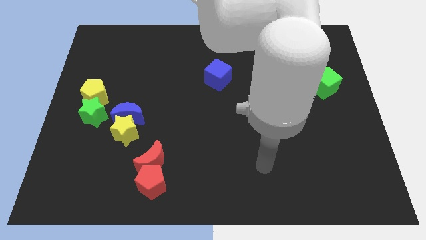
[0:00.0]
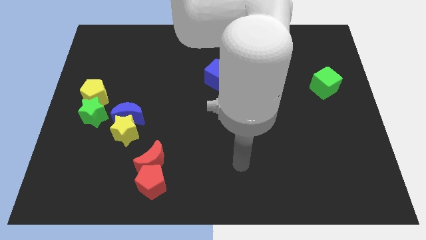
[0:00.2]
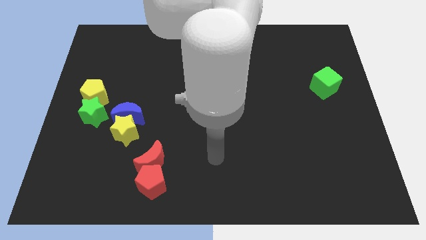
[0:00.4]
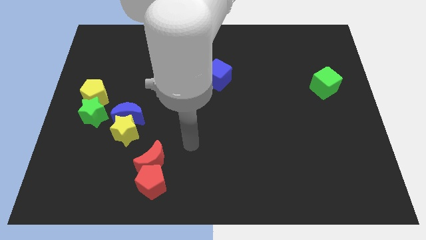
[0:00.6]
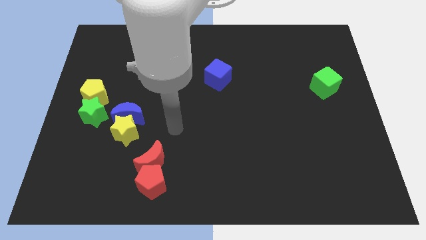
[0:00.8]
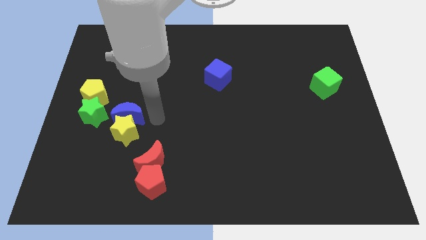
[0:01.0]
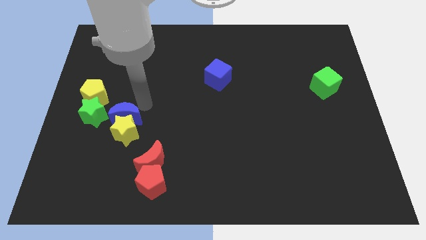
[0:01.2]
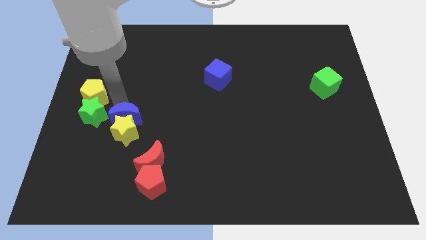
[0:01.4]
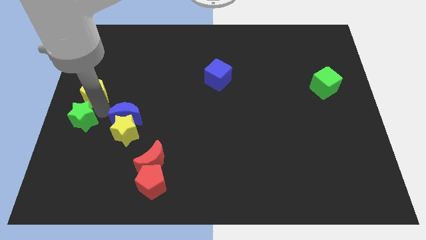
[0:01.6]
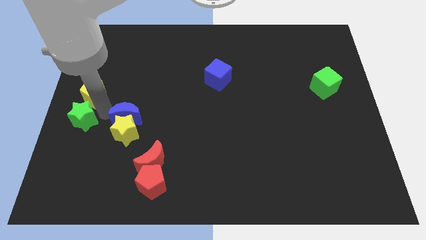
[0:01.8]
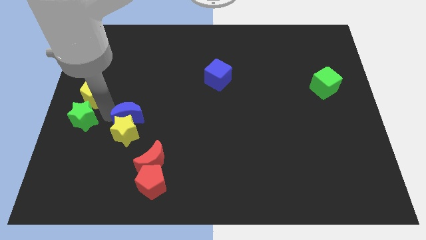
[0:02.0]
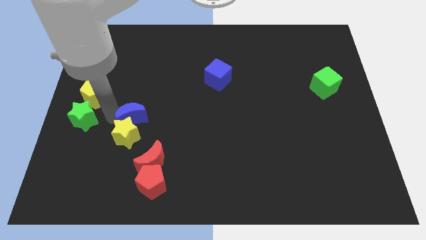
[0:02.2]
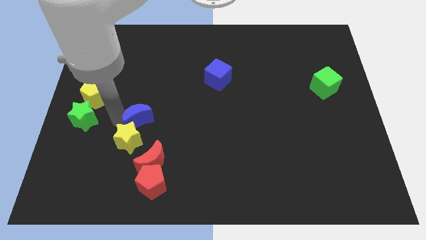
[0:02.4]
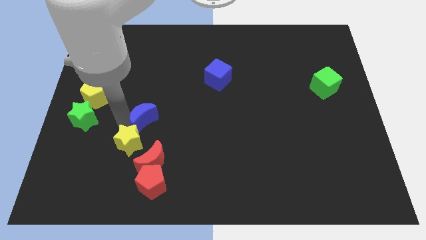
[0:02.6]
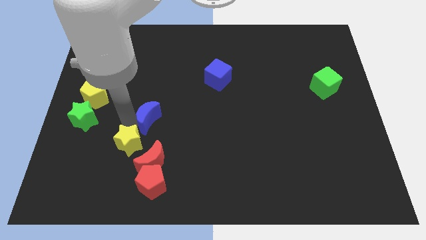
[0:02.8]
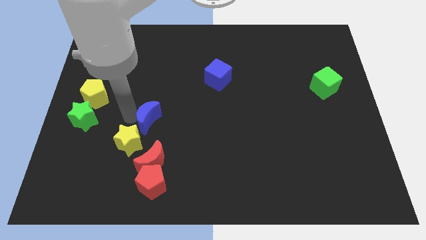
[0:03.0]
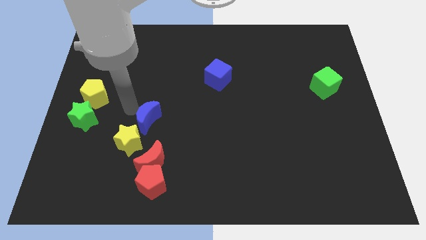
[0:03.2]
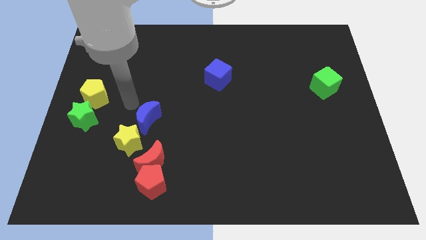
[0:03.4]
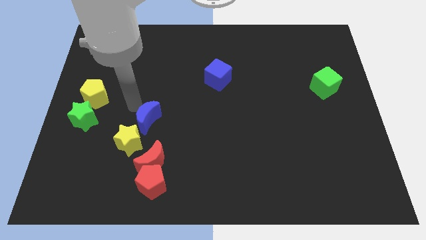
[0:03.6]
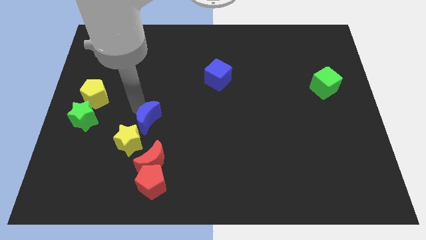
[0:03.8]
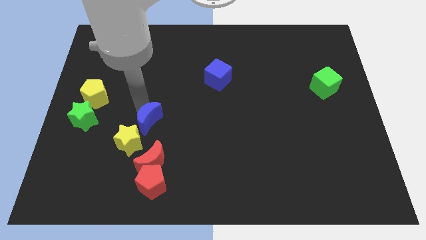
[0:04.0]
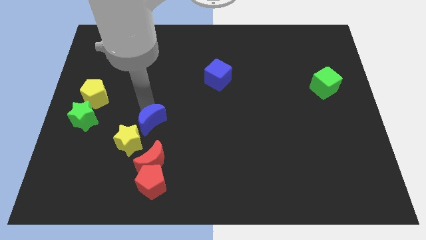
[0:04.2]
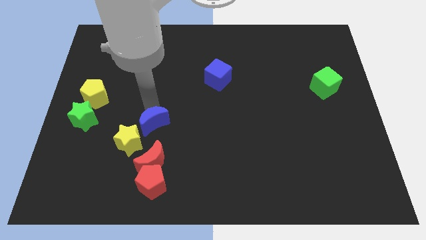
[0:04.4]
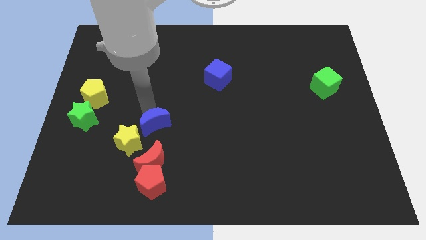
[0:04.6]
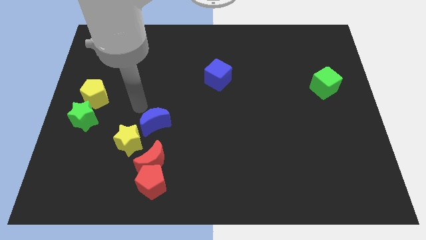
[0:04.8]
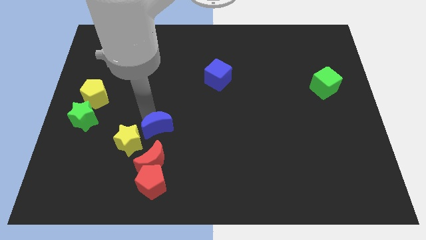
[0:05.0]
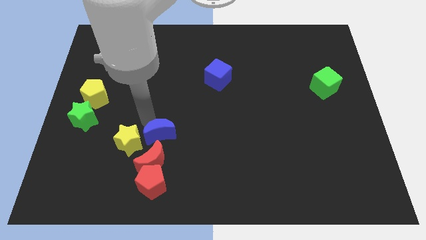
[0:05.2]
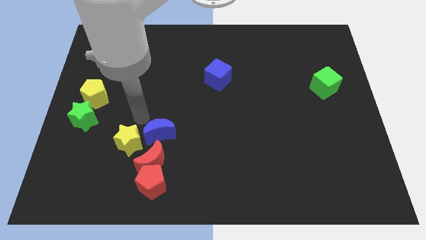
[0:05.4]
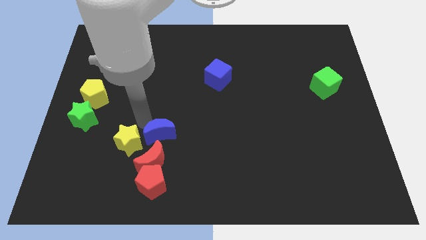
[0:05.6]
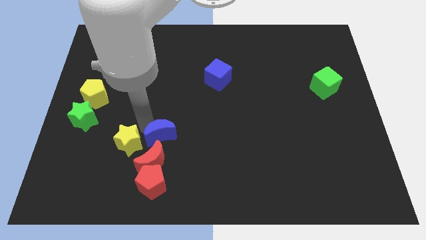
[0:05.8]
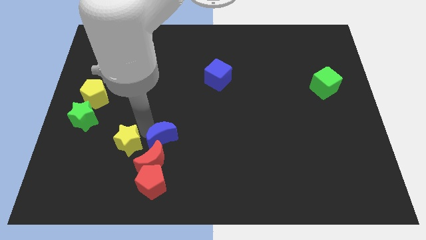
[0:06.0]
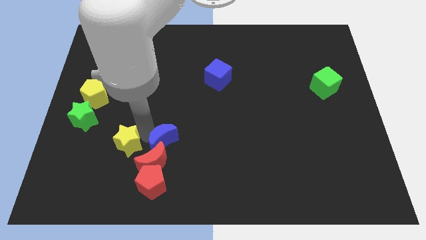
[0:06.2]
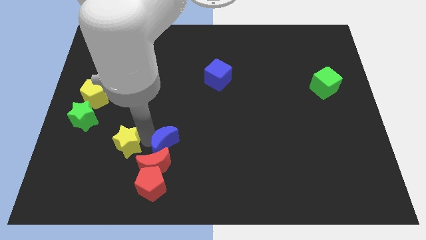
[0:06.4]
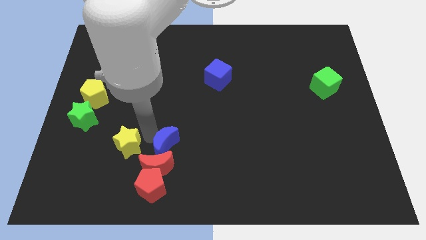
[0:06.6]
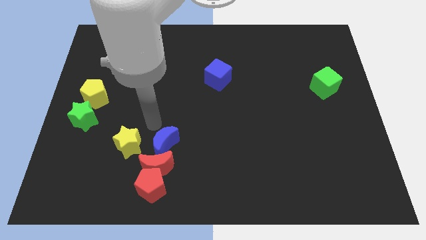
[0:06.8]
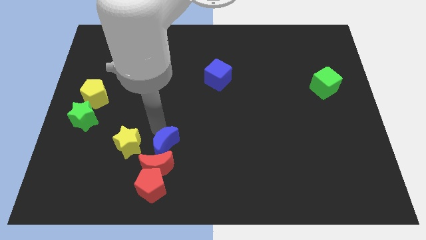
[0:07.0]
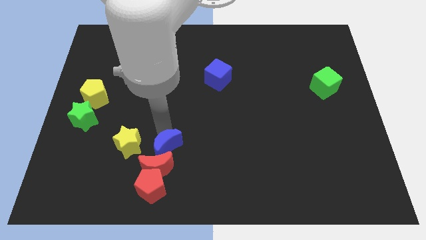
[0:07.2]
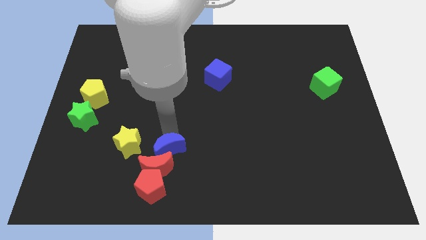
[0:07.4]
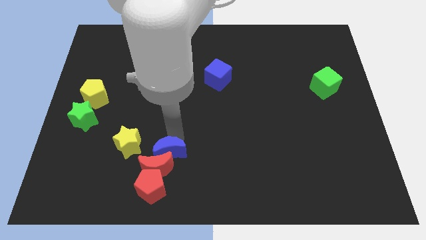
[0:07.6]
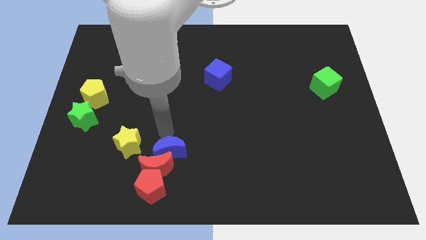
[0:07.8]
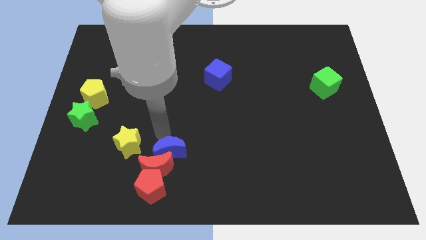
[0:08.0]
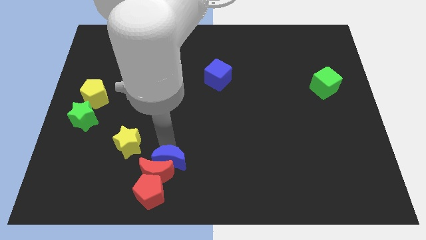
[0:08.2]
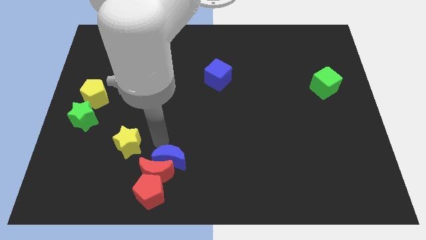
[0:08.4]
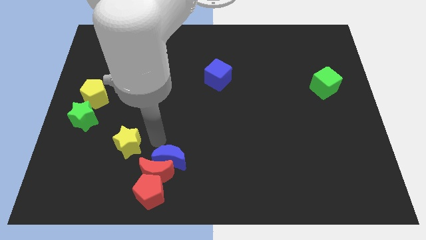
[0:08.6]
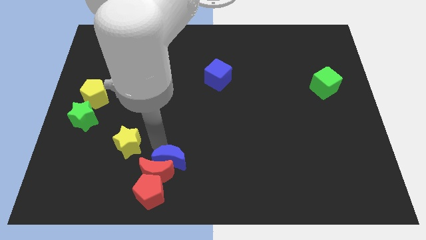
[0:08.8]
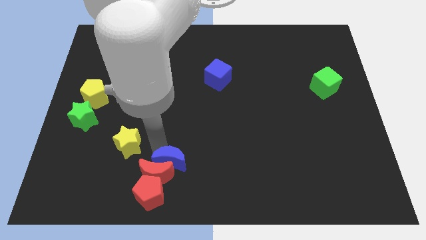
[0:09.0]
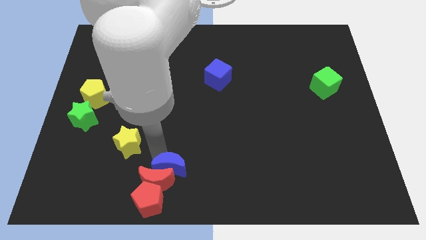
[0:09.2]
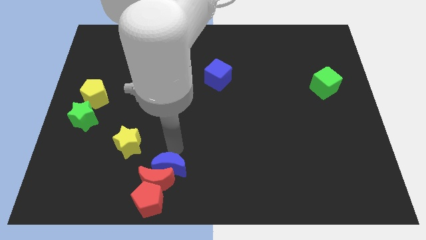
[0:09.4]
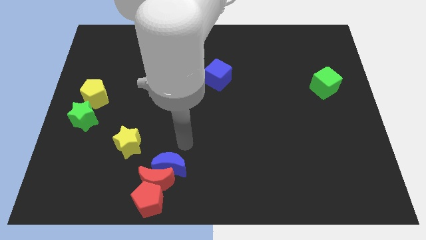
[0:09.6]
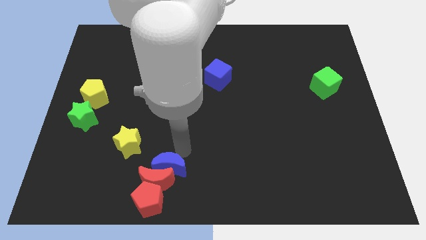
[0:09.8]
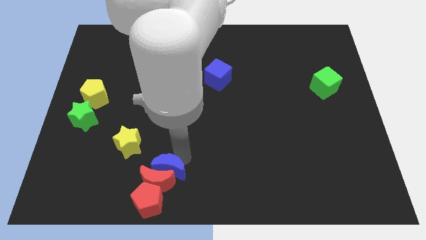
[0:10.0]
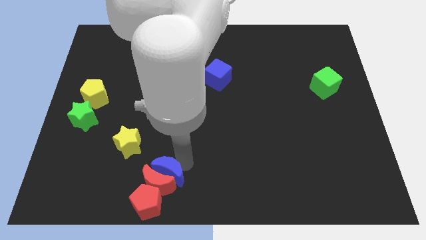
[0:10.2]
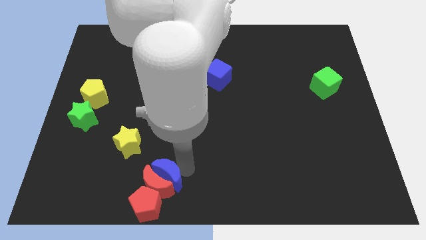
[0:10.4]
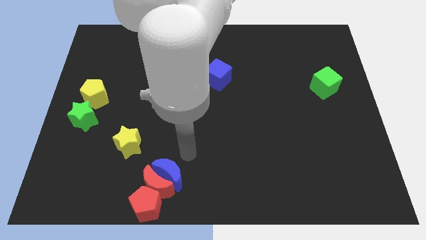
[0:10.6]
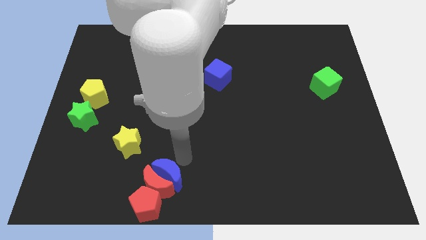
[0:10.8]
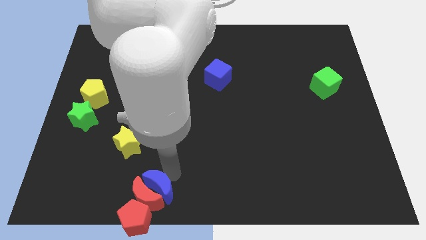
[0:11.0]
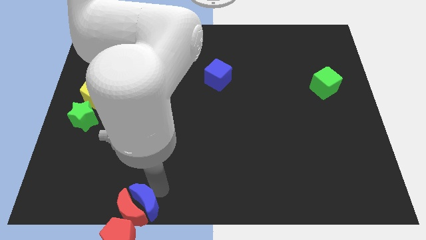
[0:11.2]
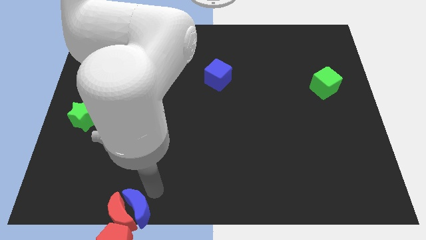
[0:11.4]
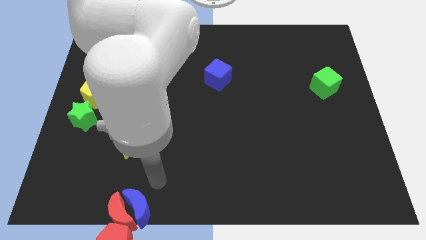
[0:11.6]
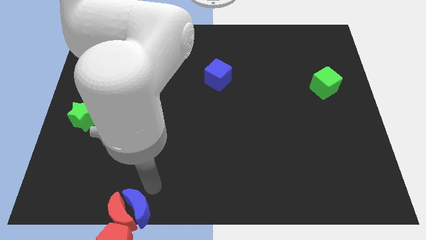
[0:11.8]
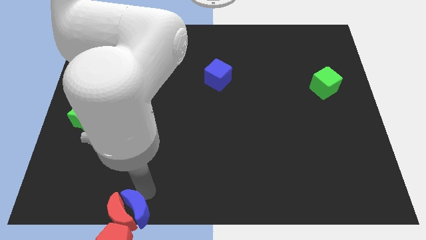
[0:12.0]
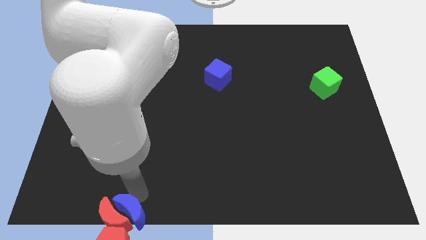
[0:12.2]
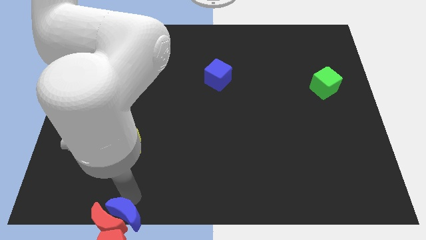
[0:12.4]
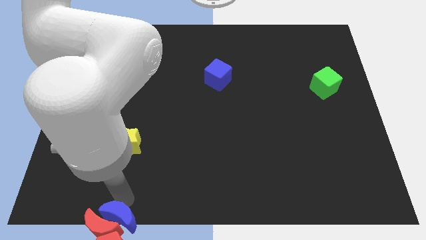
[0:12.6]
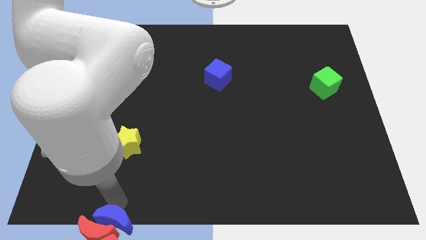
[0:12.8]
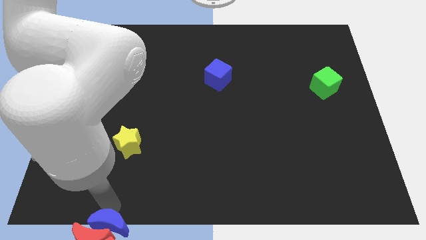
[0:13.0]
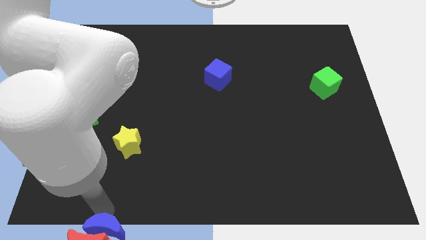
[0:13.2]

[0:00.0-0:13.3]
move the blue moon to the red pentagon

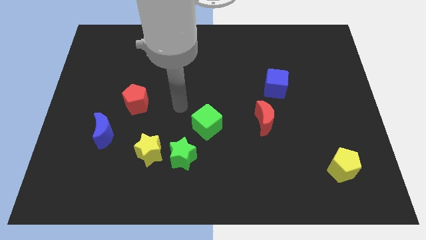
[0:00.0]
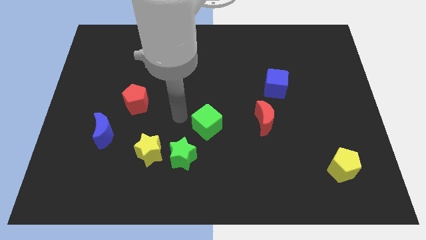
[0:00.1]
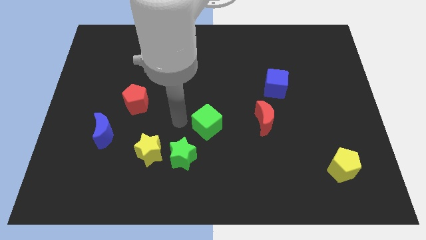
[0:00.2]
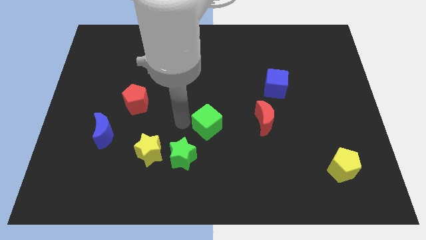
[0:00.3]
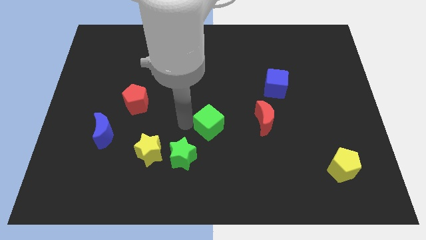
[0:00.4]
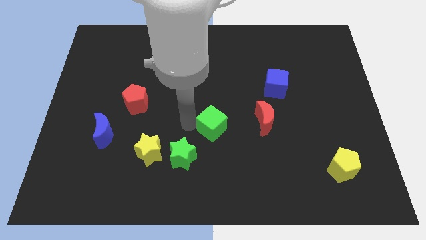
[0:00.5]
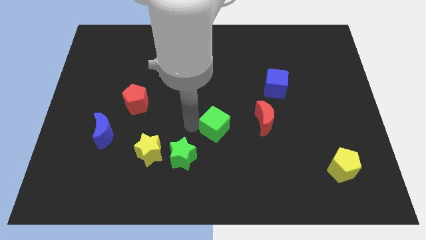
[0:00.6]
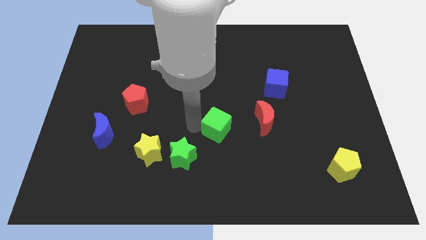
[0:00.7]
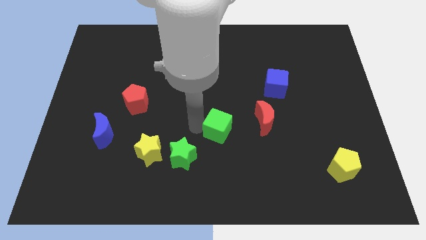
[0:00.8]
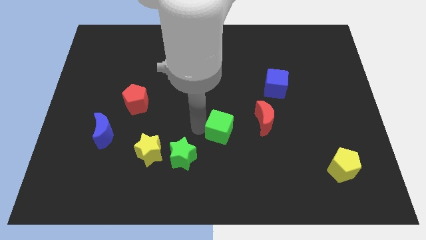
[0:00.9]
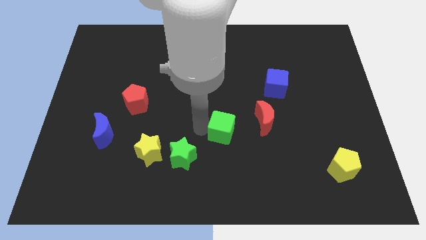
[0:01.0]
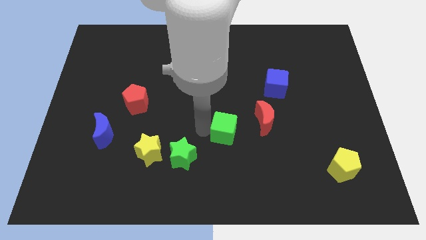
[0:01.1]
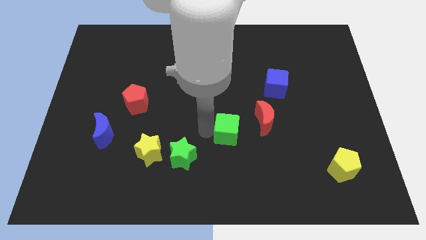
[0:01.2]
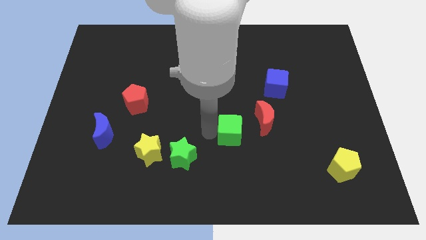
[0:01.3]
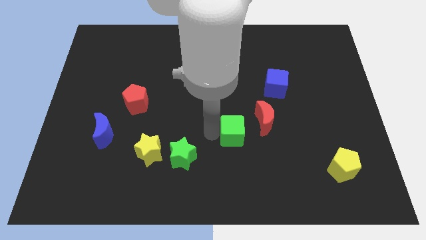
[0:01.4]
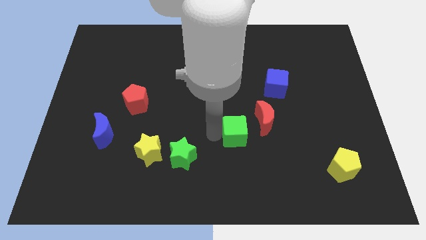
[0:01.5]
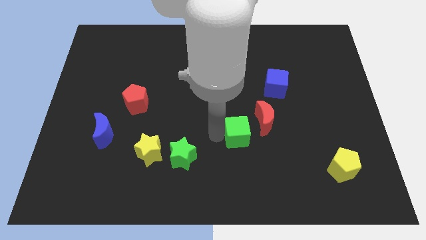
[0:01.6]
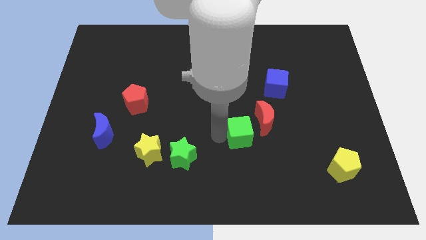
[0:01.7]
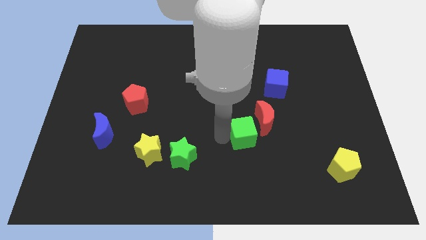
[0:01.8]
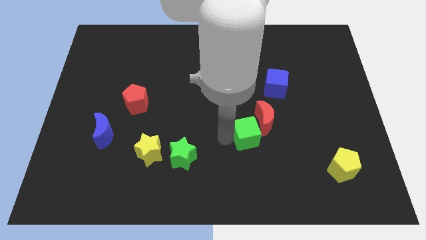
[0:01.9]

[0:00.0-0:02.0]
move the green cube to the red moon
